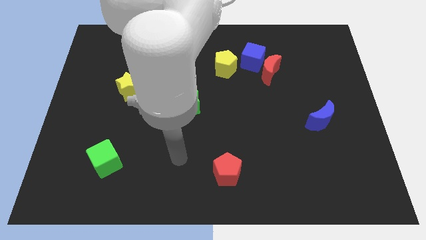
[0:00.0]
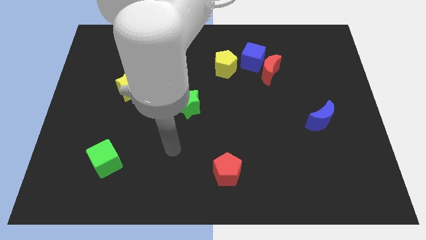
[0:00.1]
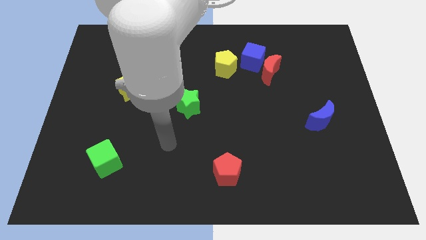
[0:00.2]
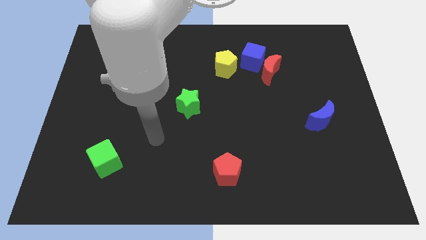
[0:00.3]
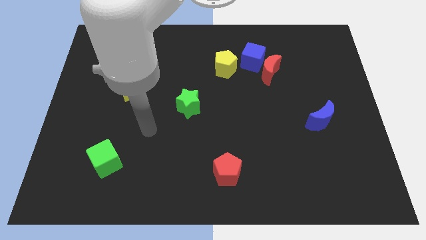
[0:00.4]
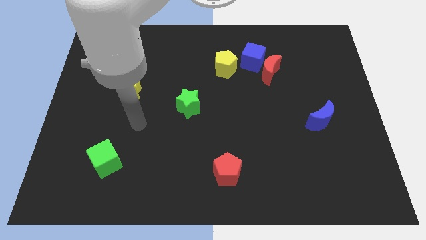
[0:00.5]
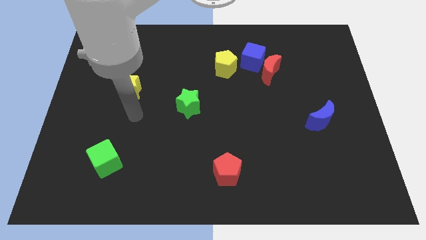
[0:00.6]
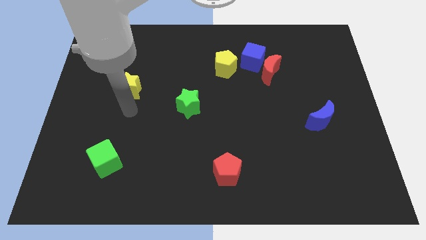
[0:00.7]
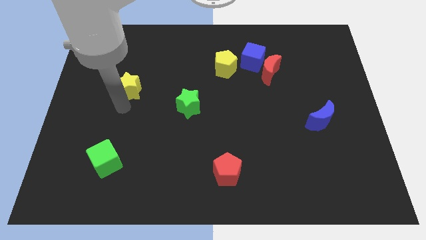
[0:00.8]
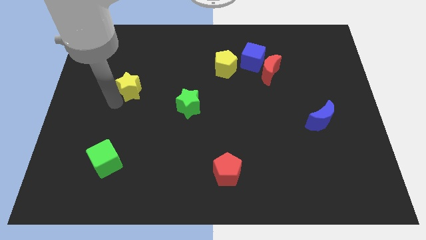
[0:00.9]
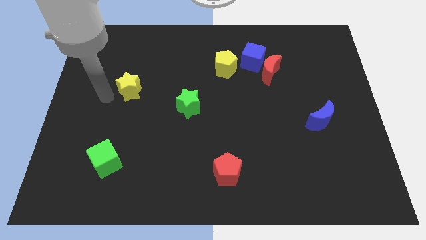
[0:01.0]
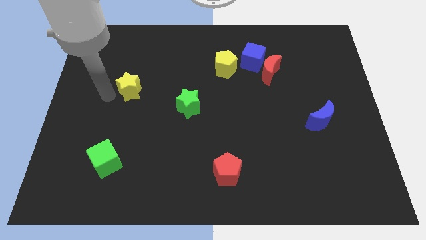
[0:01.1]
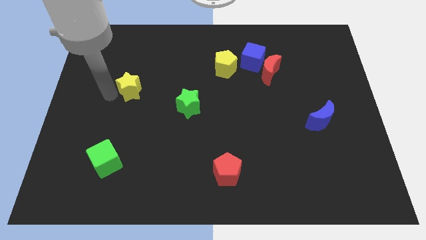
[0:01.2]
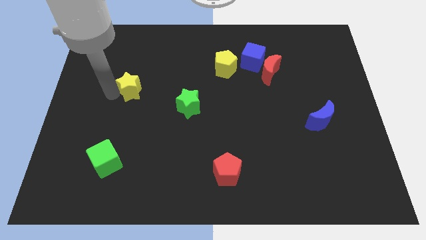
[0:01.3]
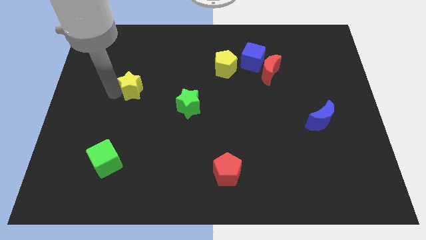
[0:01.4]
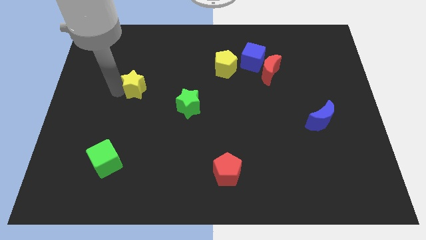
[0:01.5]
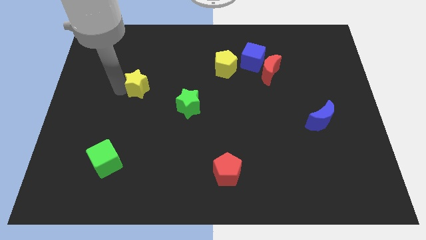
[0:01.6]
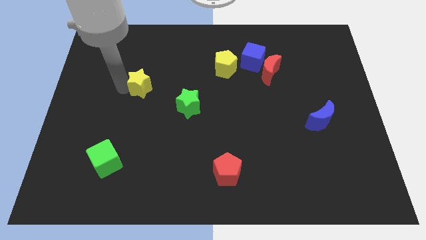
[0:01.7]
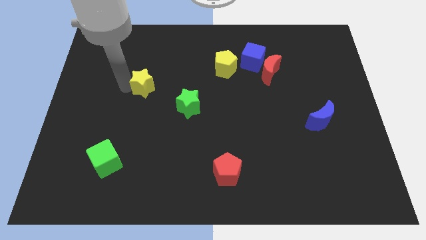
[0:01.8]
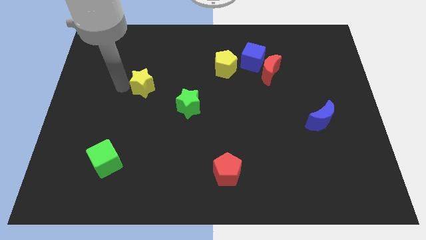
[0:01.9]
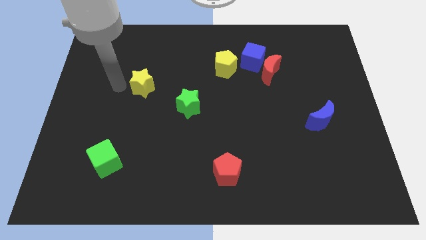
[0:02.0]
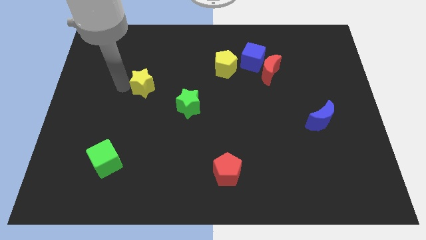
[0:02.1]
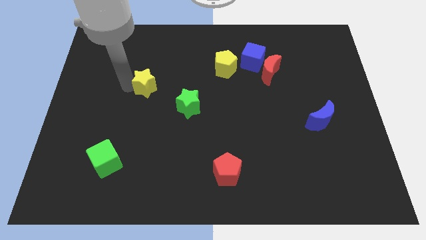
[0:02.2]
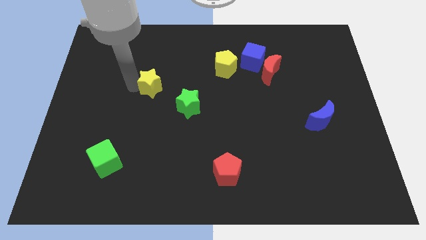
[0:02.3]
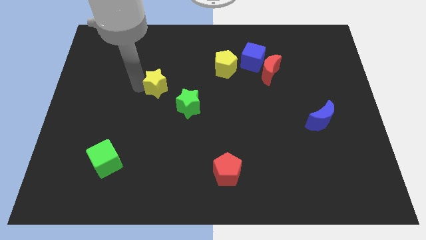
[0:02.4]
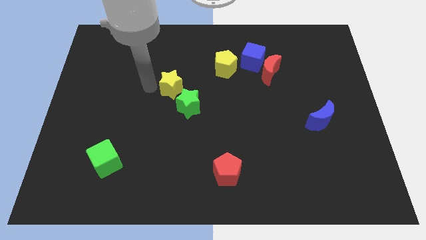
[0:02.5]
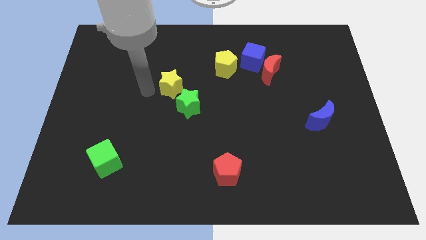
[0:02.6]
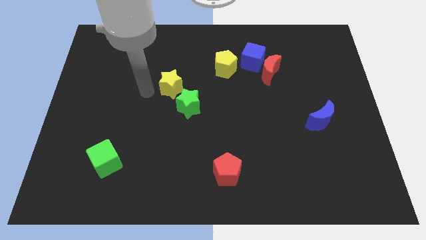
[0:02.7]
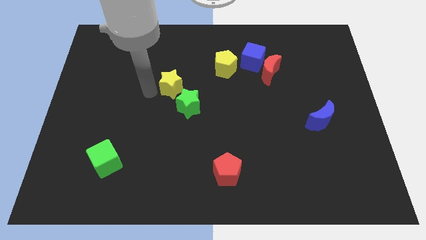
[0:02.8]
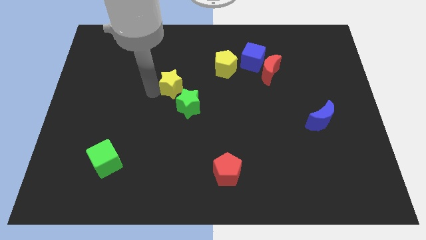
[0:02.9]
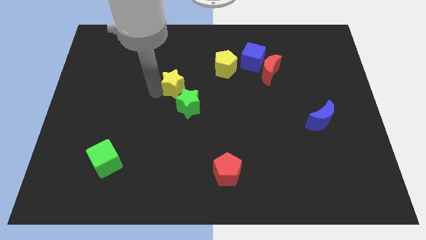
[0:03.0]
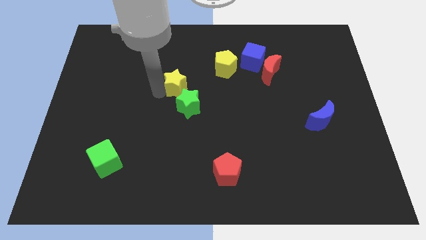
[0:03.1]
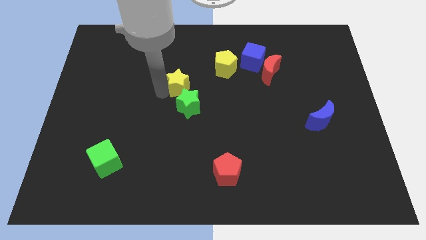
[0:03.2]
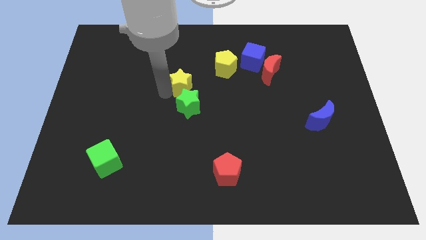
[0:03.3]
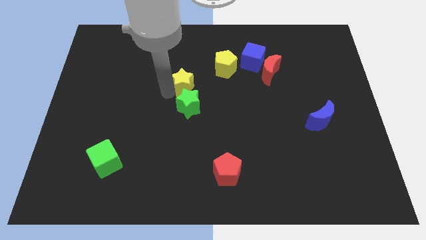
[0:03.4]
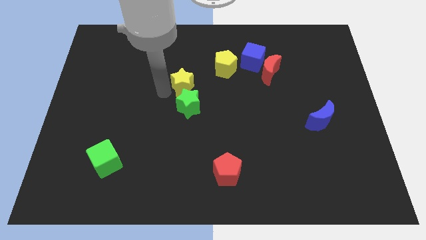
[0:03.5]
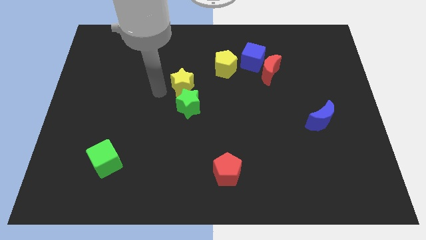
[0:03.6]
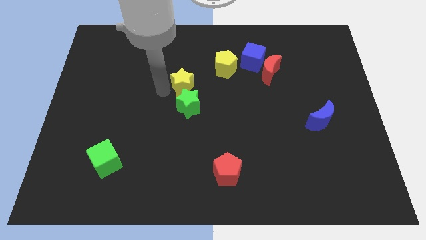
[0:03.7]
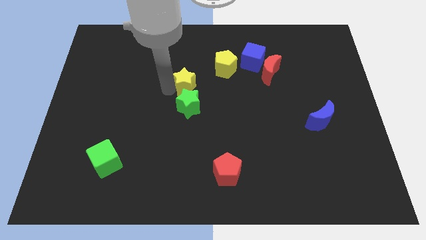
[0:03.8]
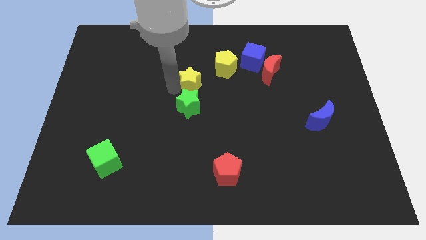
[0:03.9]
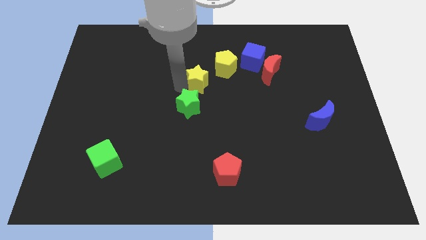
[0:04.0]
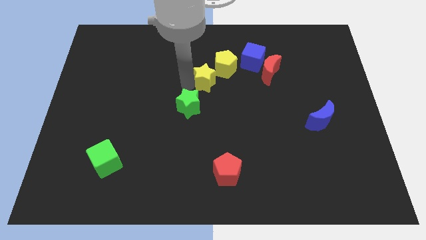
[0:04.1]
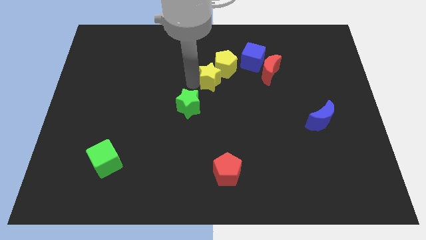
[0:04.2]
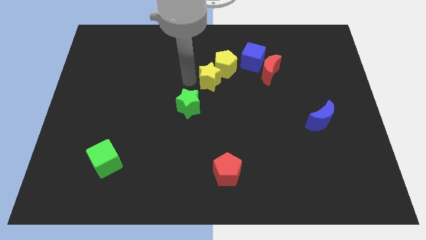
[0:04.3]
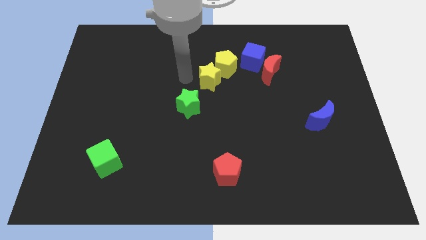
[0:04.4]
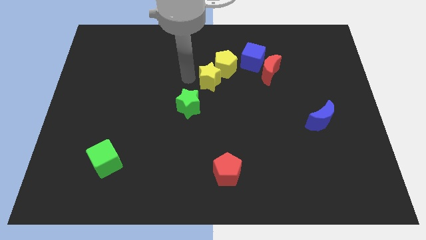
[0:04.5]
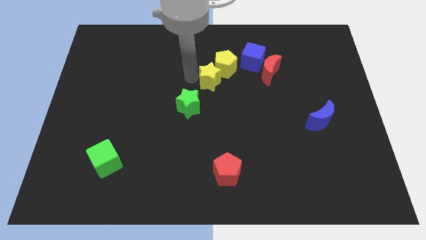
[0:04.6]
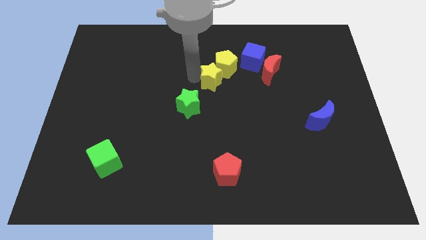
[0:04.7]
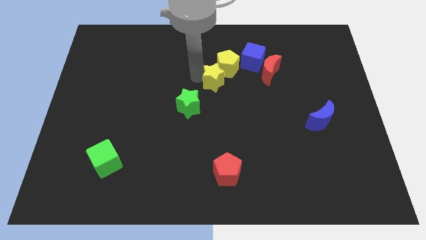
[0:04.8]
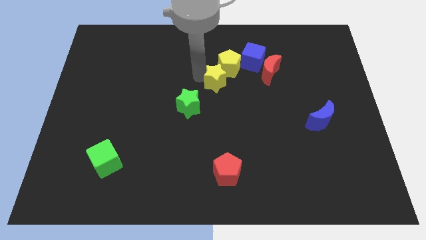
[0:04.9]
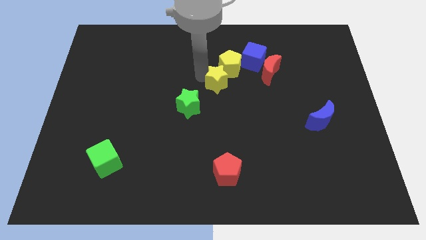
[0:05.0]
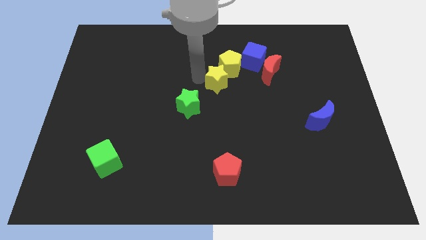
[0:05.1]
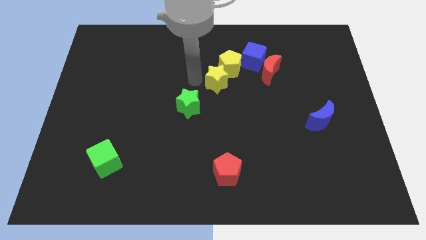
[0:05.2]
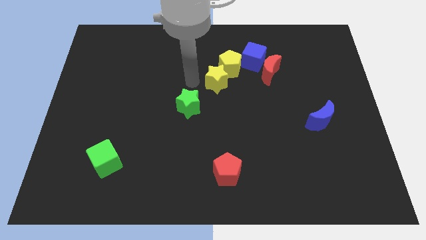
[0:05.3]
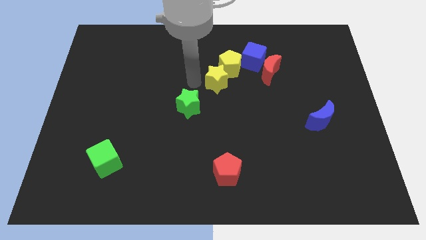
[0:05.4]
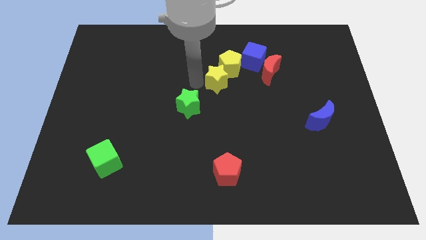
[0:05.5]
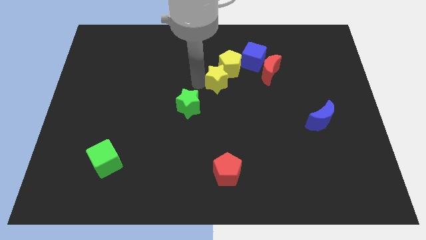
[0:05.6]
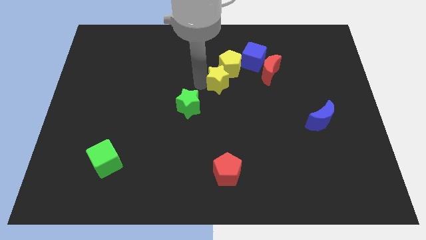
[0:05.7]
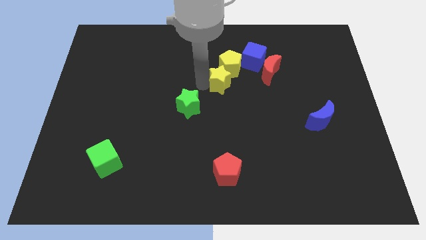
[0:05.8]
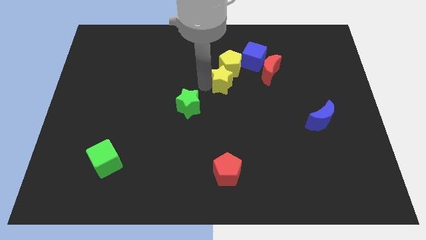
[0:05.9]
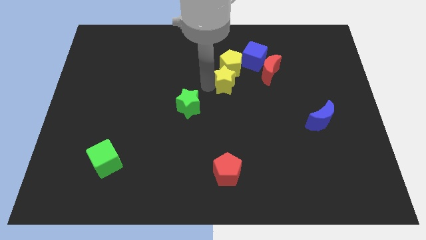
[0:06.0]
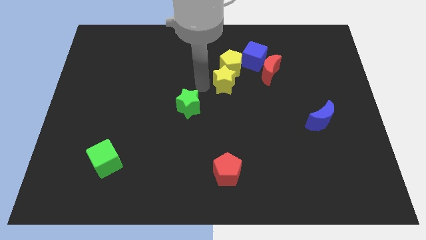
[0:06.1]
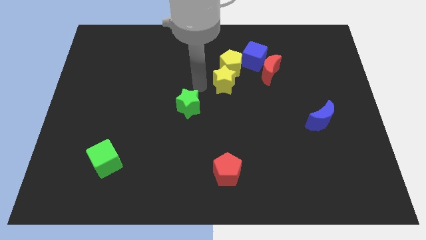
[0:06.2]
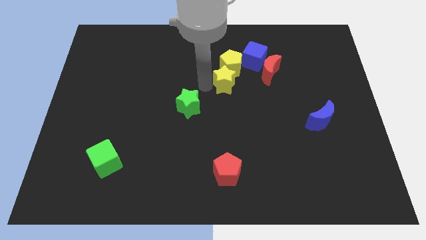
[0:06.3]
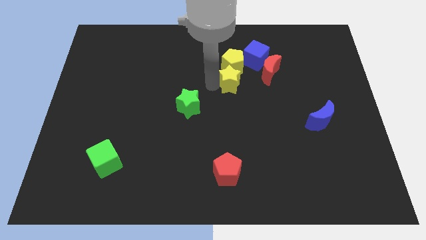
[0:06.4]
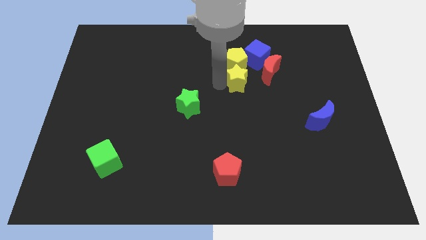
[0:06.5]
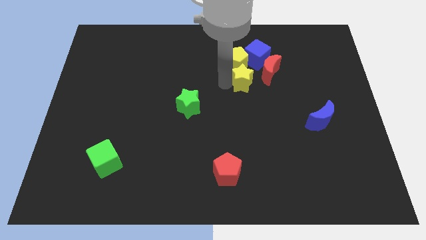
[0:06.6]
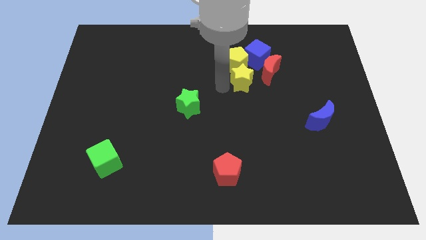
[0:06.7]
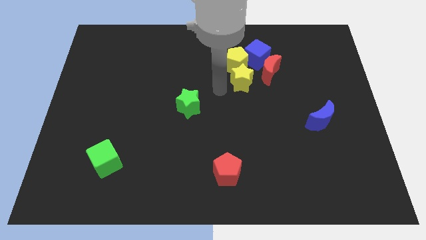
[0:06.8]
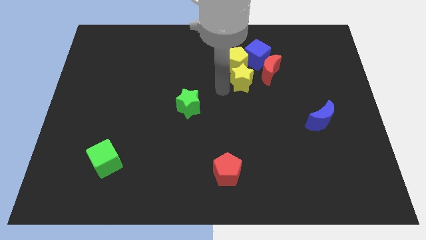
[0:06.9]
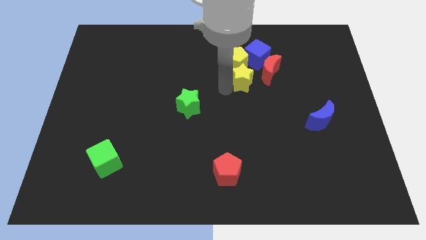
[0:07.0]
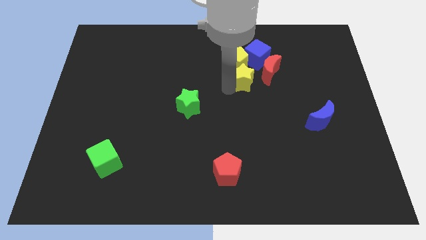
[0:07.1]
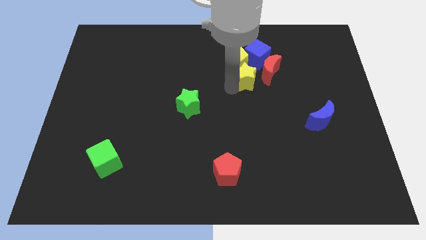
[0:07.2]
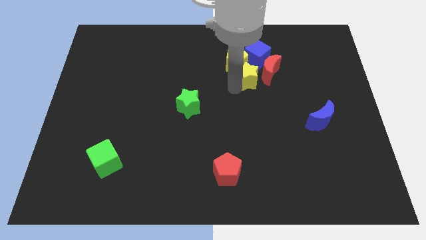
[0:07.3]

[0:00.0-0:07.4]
slide the yellow star to the red moon

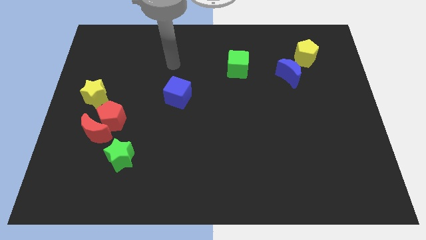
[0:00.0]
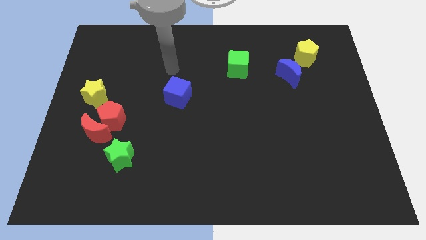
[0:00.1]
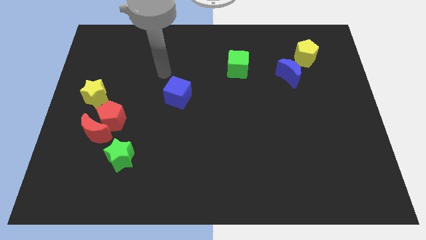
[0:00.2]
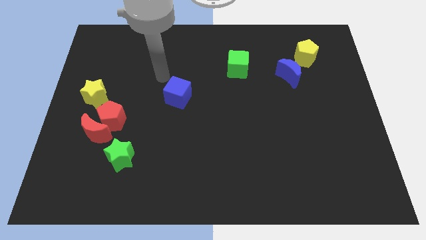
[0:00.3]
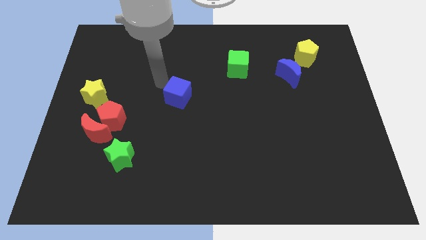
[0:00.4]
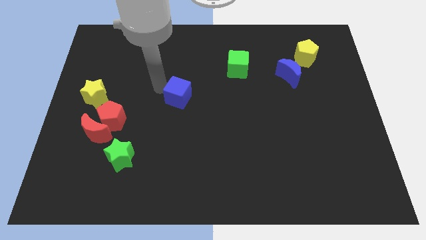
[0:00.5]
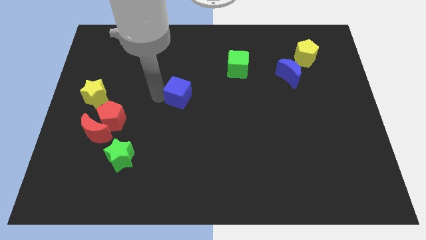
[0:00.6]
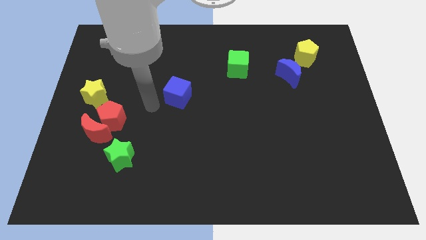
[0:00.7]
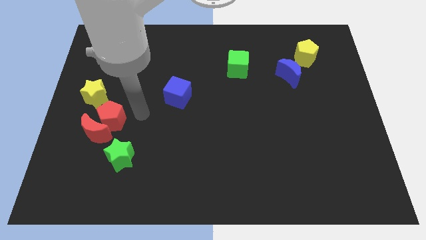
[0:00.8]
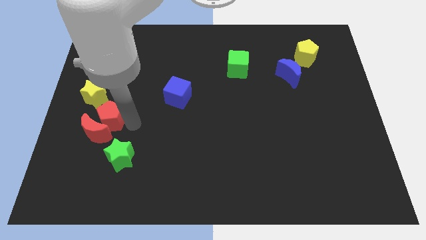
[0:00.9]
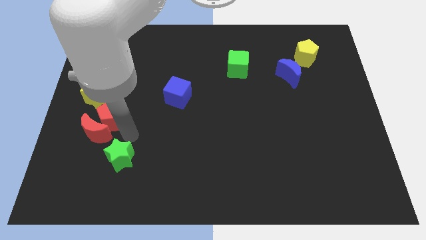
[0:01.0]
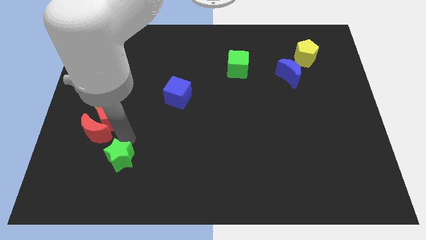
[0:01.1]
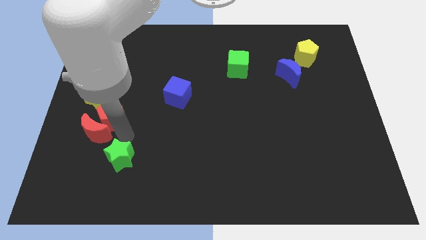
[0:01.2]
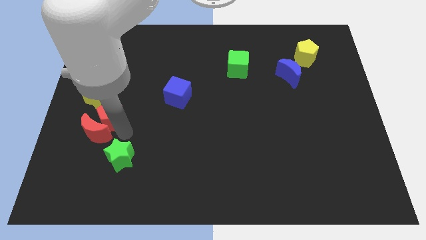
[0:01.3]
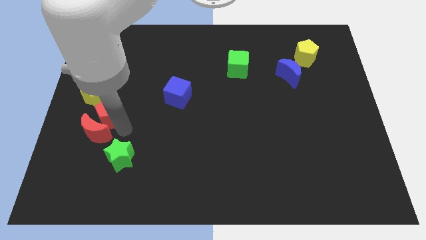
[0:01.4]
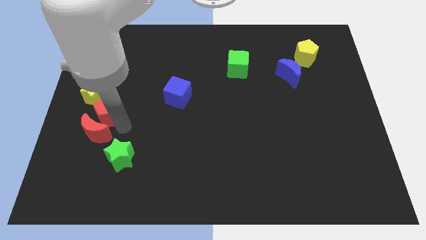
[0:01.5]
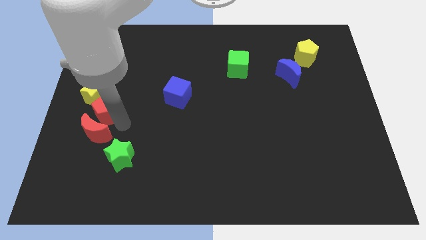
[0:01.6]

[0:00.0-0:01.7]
put the red pentagon towards the yellow star
